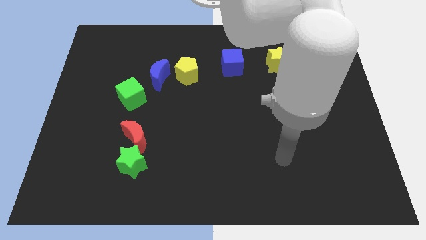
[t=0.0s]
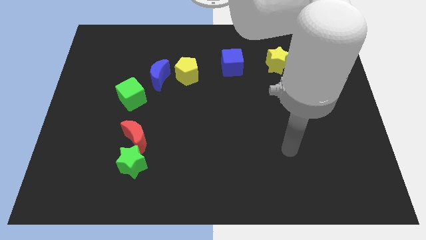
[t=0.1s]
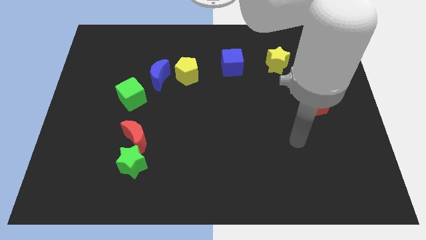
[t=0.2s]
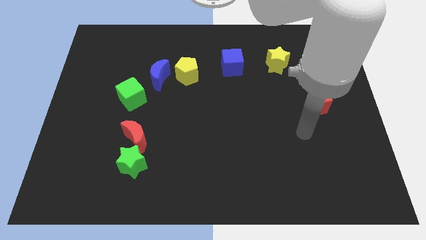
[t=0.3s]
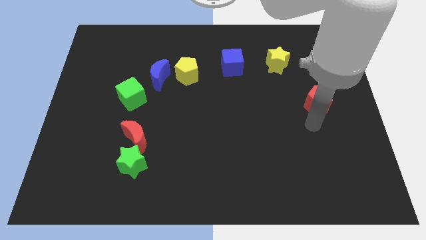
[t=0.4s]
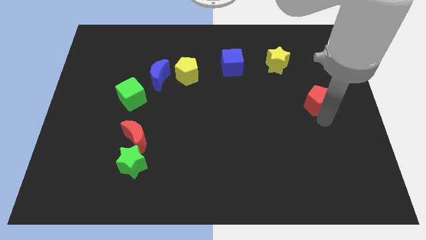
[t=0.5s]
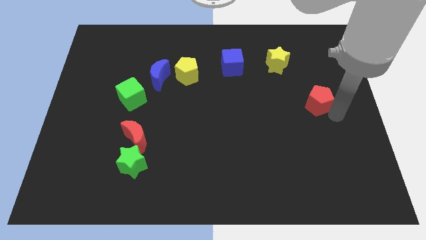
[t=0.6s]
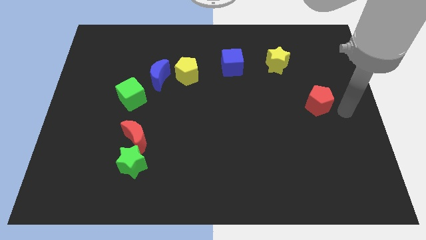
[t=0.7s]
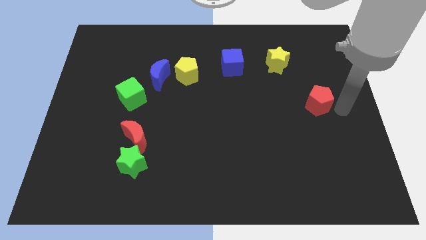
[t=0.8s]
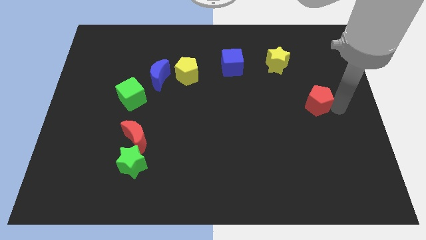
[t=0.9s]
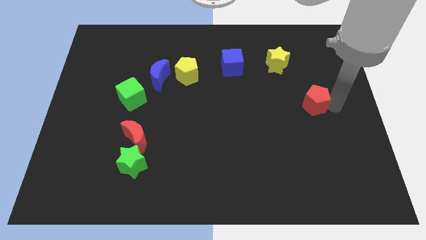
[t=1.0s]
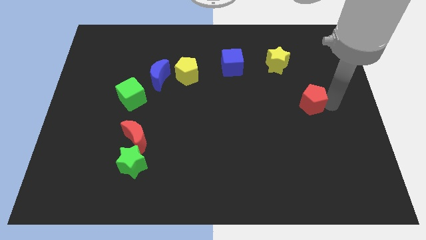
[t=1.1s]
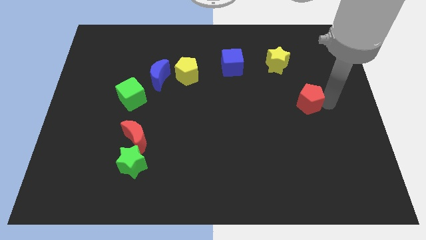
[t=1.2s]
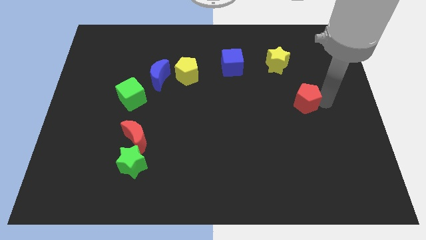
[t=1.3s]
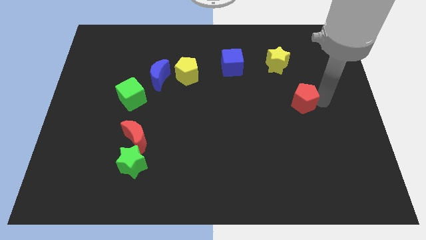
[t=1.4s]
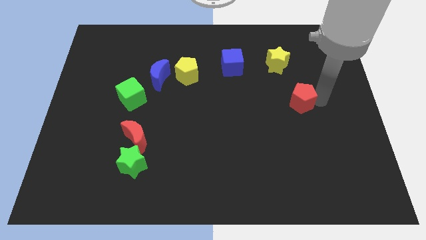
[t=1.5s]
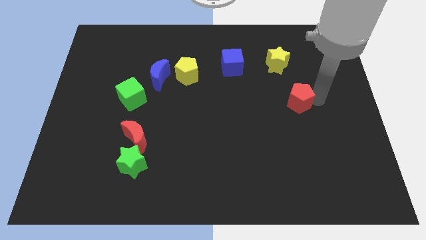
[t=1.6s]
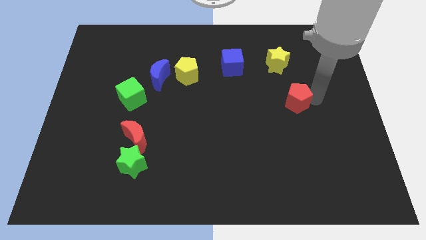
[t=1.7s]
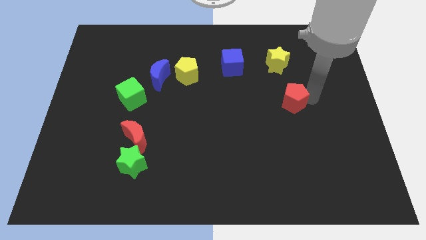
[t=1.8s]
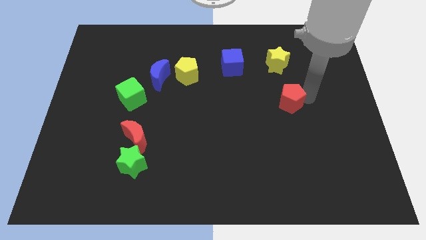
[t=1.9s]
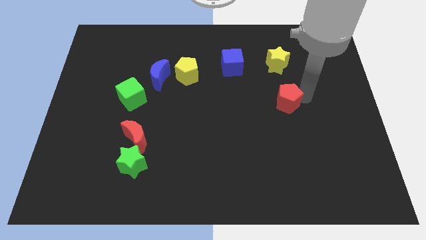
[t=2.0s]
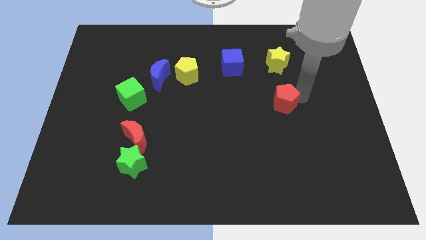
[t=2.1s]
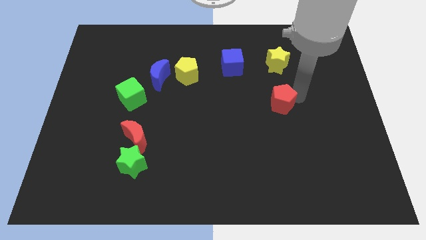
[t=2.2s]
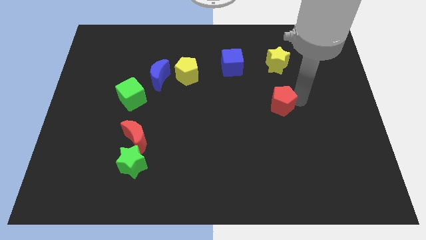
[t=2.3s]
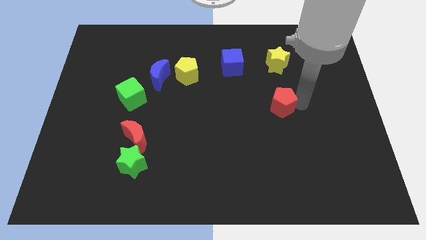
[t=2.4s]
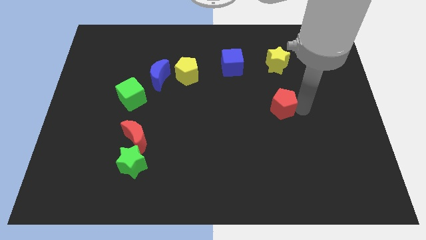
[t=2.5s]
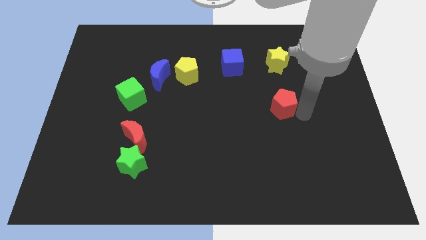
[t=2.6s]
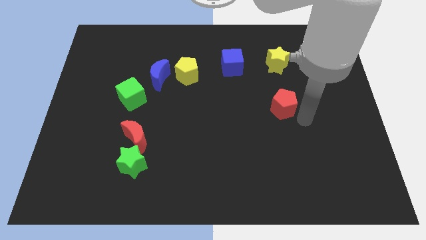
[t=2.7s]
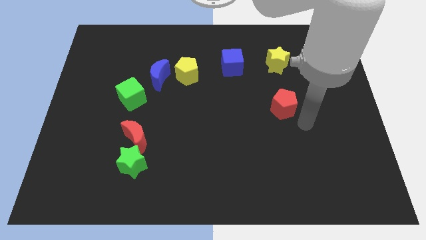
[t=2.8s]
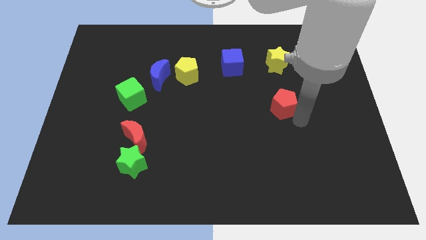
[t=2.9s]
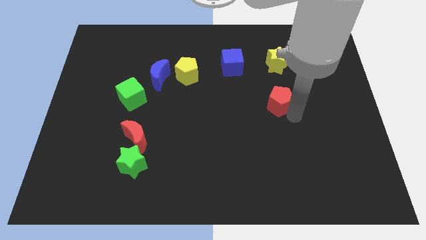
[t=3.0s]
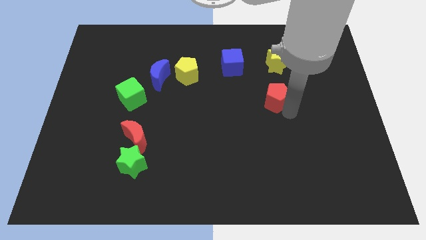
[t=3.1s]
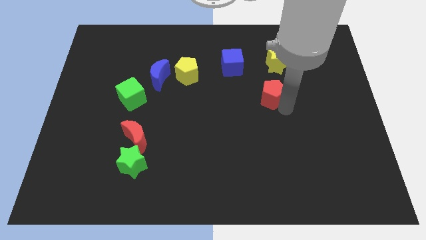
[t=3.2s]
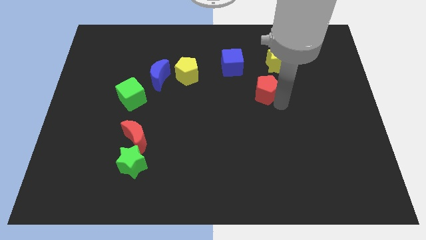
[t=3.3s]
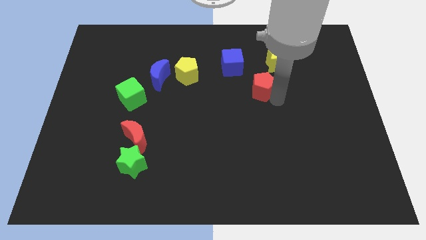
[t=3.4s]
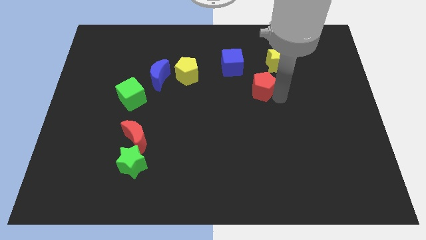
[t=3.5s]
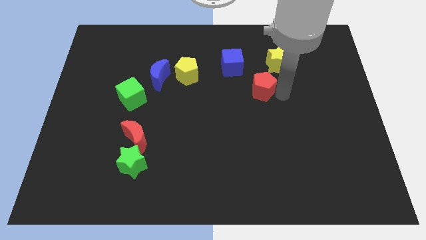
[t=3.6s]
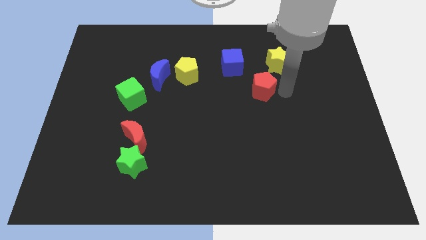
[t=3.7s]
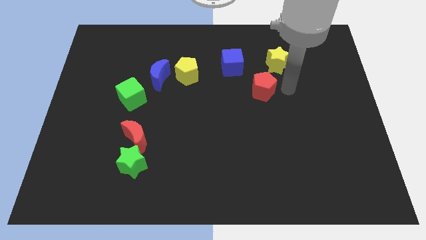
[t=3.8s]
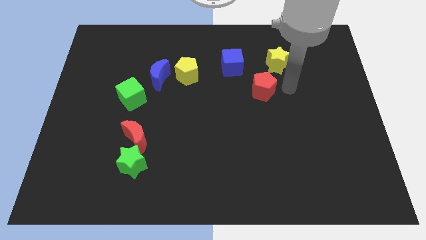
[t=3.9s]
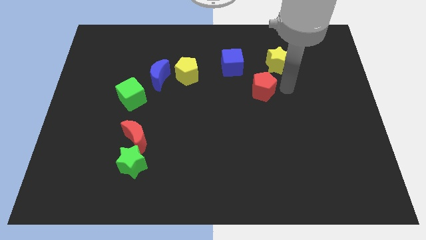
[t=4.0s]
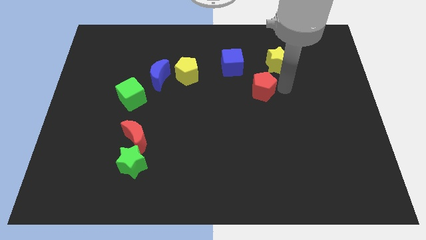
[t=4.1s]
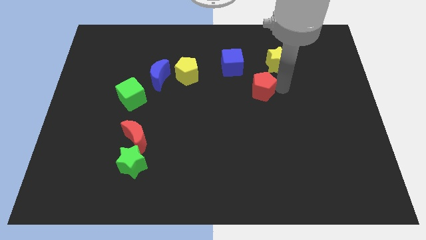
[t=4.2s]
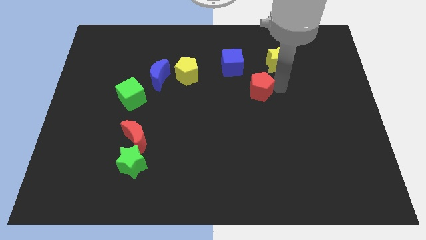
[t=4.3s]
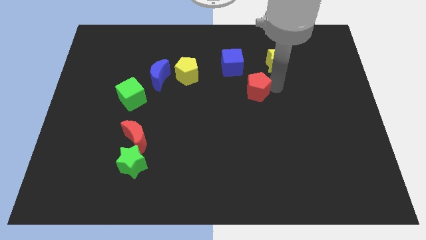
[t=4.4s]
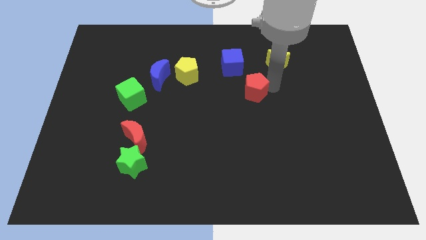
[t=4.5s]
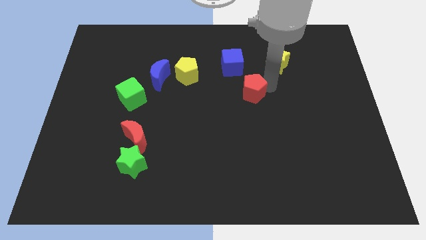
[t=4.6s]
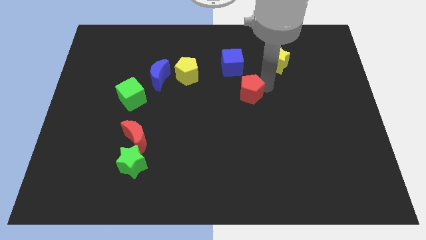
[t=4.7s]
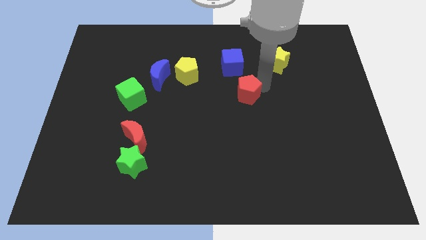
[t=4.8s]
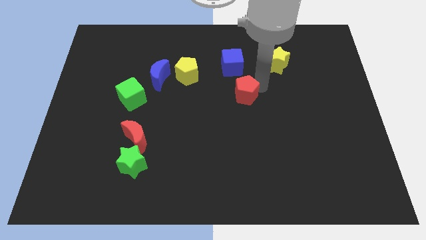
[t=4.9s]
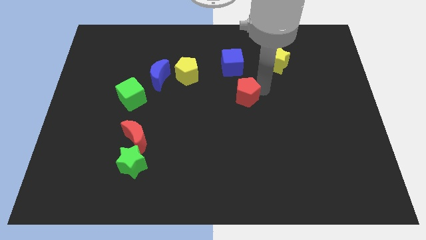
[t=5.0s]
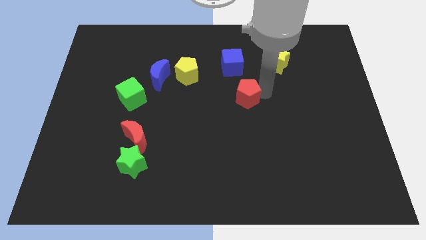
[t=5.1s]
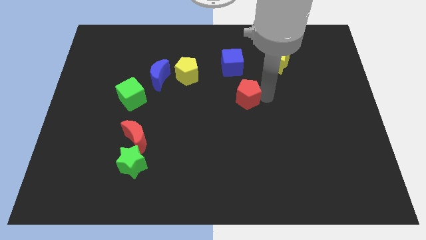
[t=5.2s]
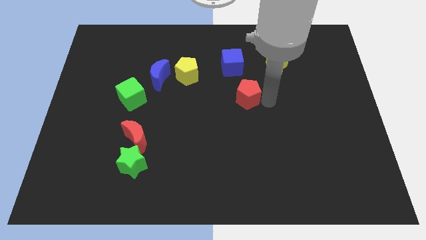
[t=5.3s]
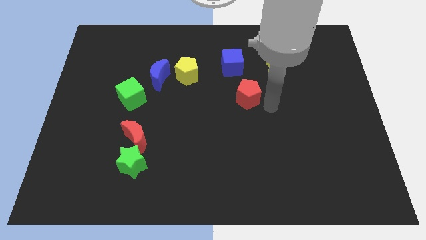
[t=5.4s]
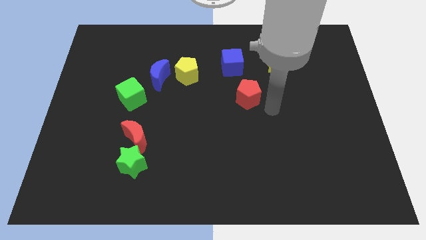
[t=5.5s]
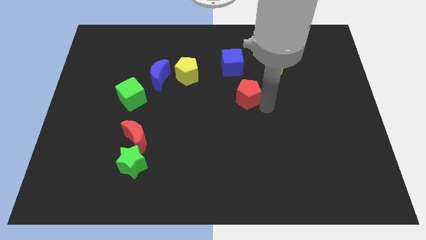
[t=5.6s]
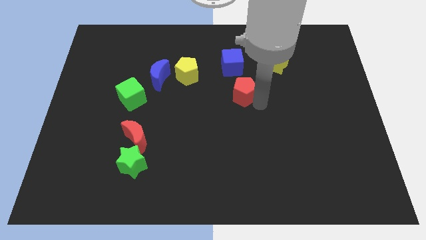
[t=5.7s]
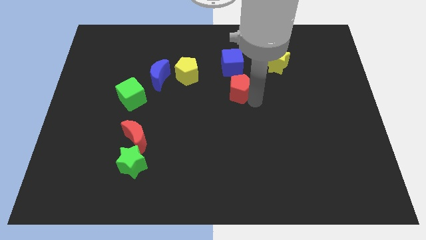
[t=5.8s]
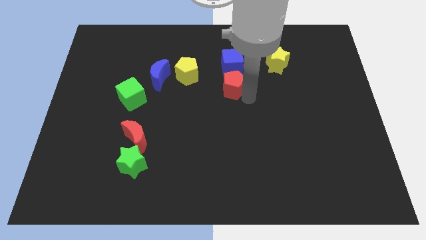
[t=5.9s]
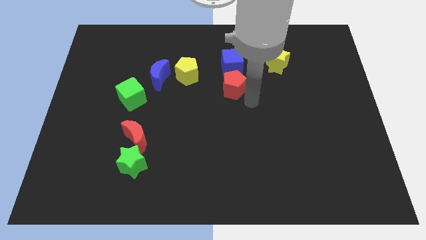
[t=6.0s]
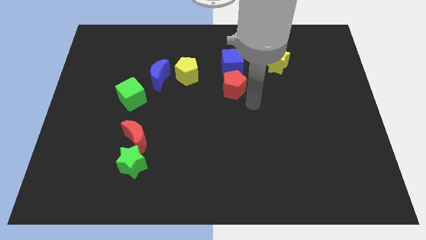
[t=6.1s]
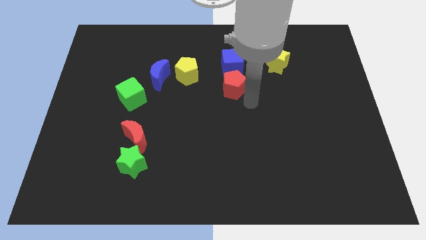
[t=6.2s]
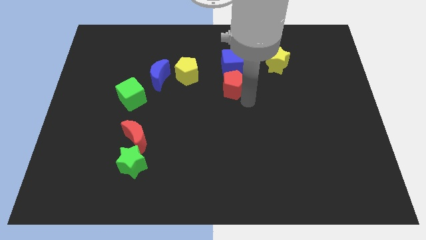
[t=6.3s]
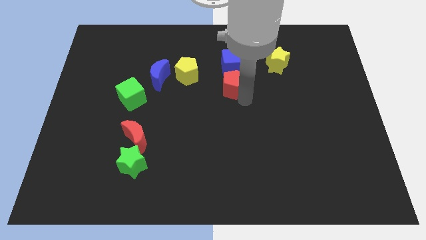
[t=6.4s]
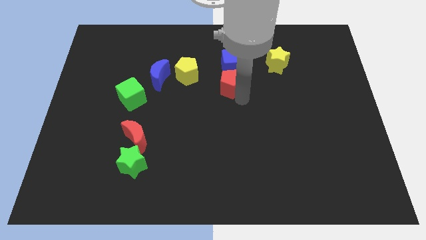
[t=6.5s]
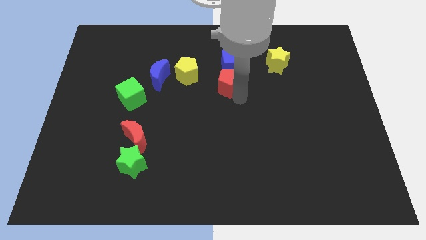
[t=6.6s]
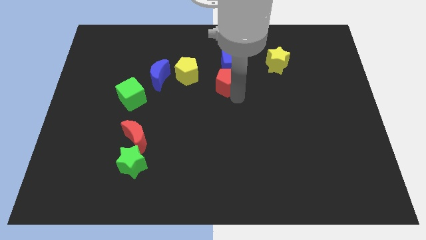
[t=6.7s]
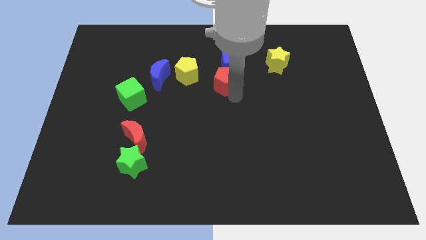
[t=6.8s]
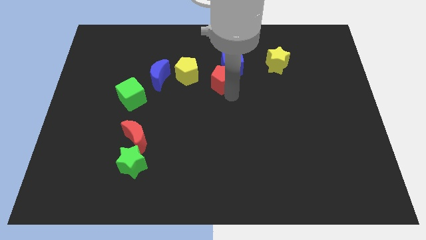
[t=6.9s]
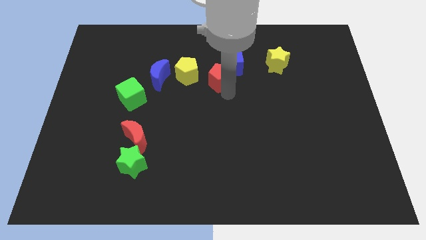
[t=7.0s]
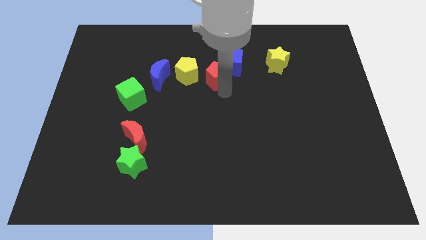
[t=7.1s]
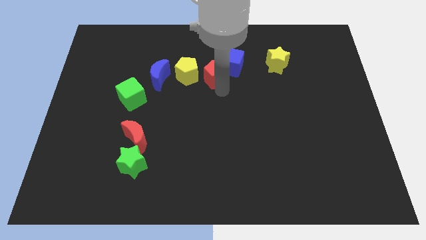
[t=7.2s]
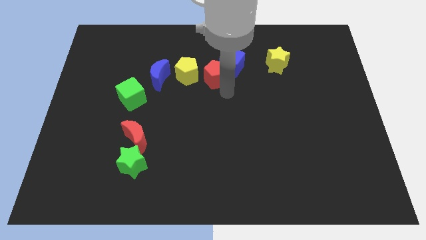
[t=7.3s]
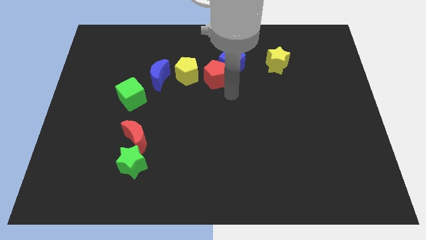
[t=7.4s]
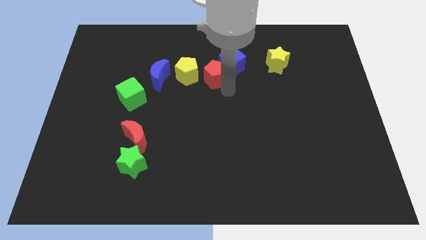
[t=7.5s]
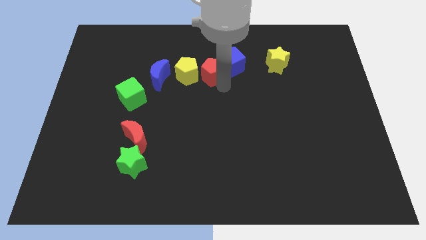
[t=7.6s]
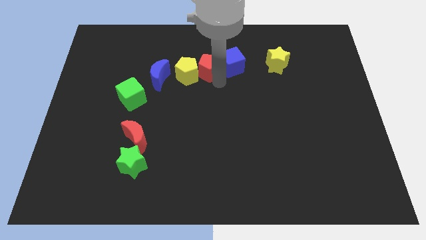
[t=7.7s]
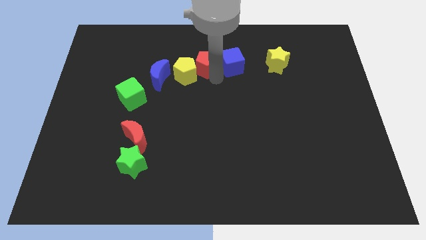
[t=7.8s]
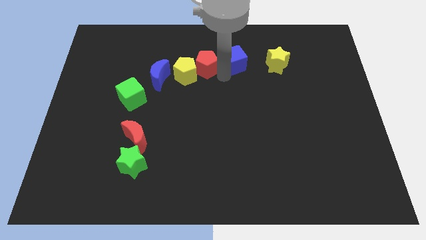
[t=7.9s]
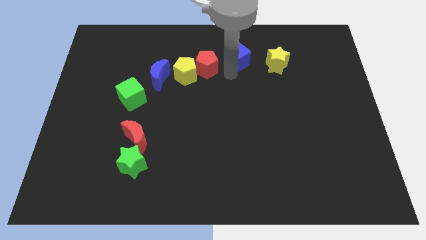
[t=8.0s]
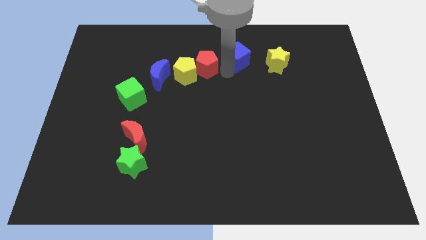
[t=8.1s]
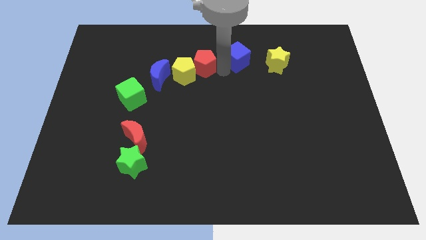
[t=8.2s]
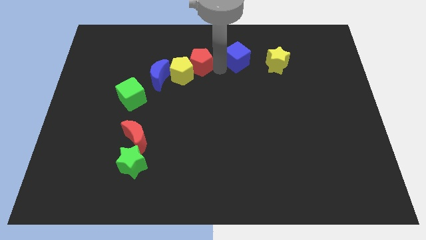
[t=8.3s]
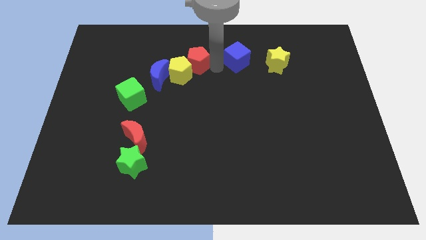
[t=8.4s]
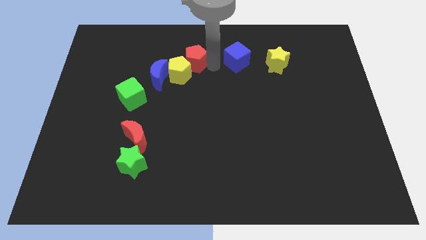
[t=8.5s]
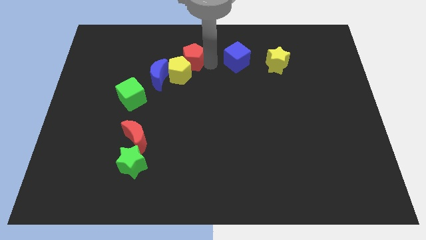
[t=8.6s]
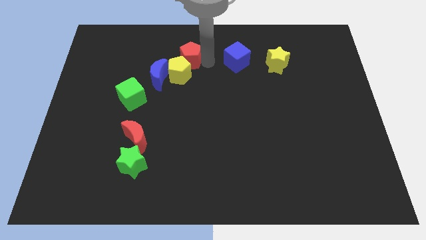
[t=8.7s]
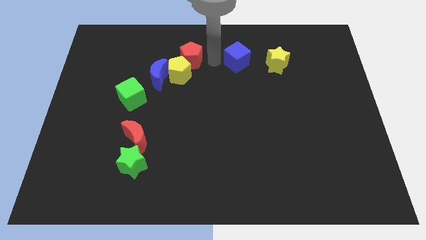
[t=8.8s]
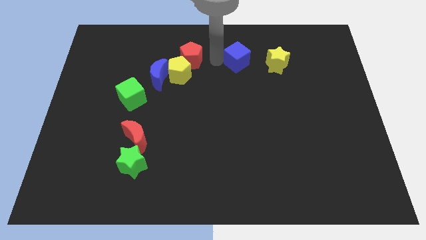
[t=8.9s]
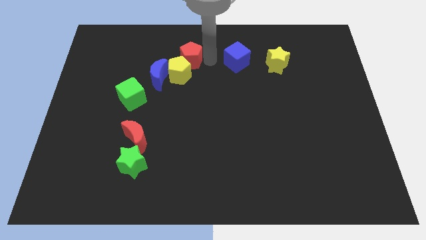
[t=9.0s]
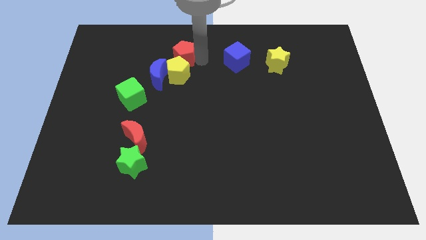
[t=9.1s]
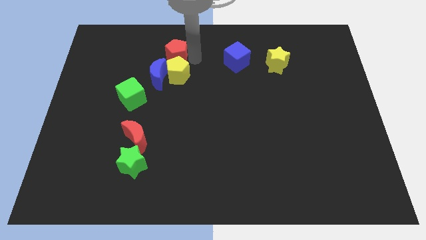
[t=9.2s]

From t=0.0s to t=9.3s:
put the red pentagon to the top left side of the yellow pentagon
